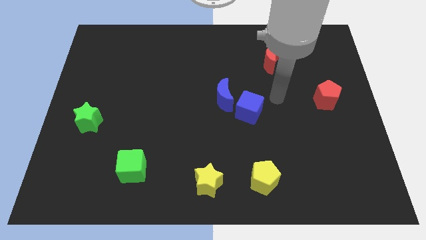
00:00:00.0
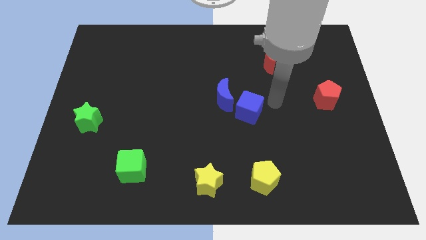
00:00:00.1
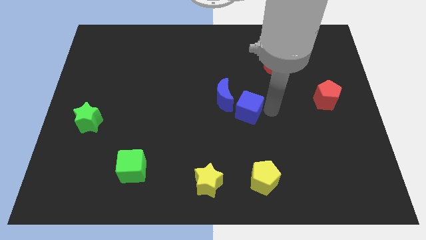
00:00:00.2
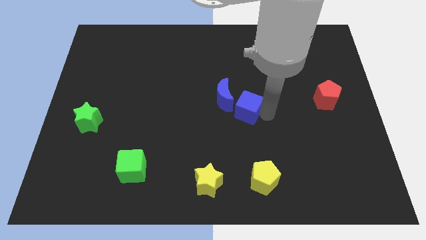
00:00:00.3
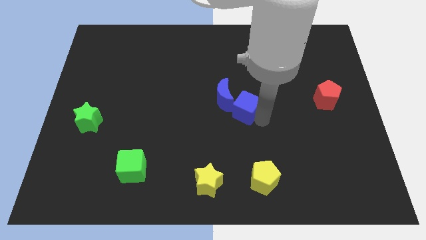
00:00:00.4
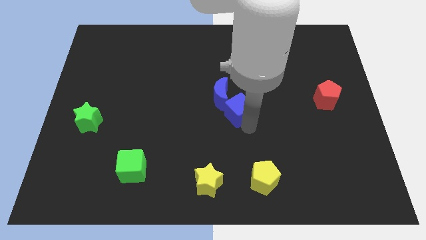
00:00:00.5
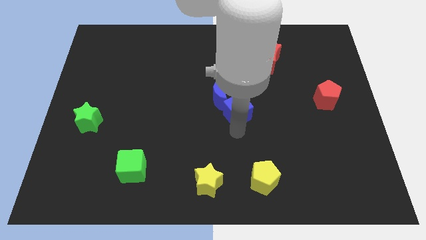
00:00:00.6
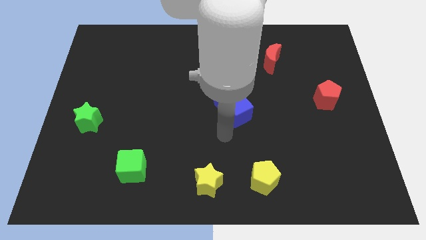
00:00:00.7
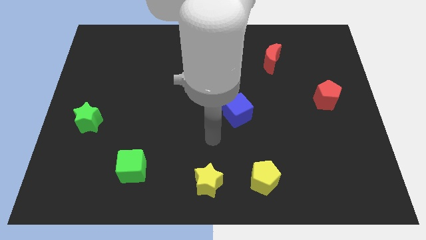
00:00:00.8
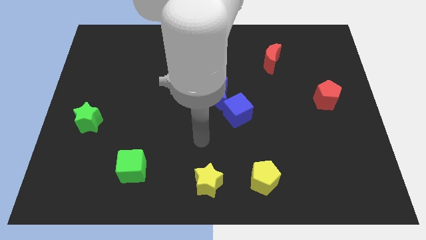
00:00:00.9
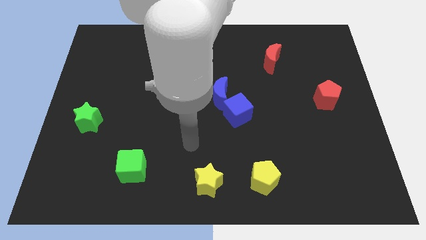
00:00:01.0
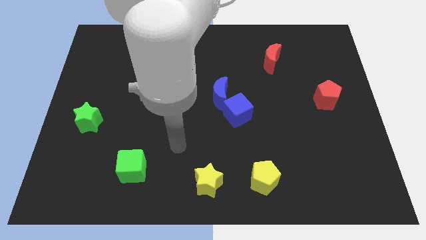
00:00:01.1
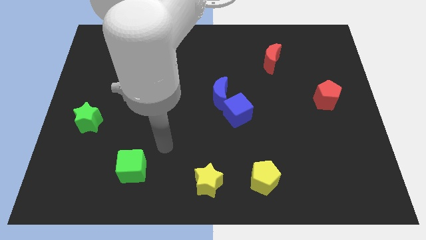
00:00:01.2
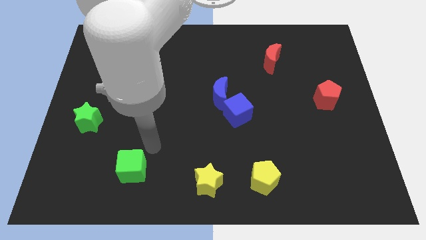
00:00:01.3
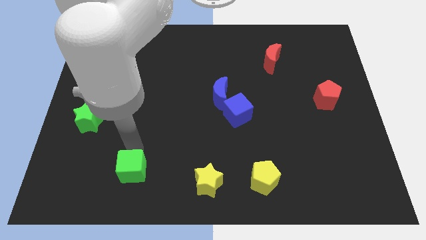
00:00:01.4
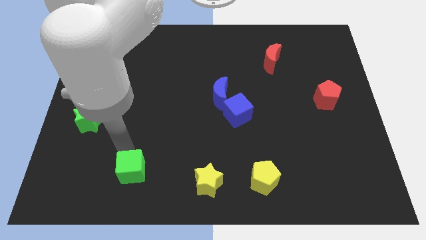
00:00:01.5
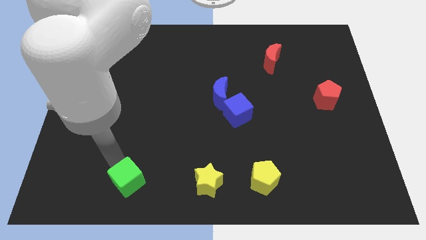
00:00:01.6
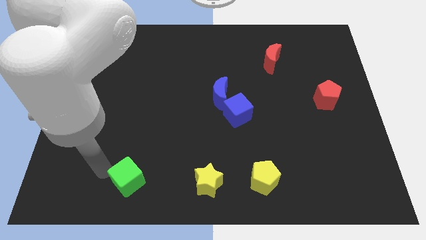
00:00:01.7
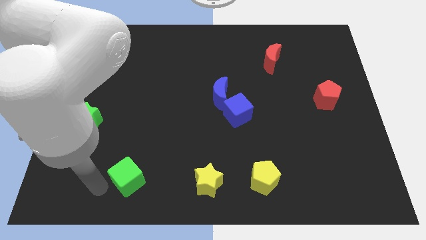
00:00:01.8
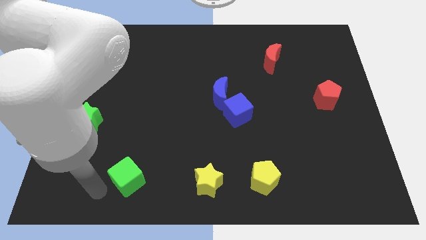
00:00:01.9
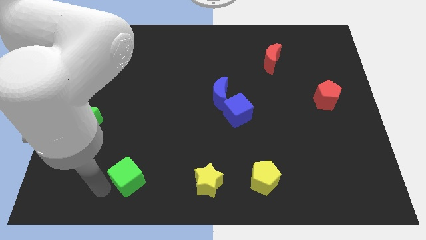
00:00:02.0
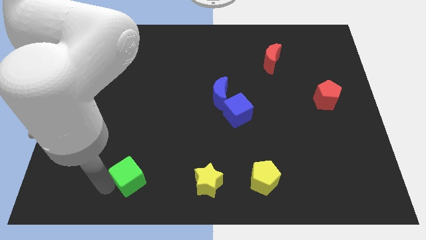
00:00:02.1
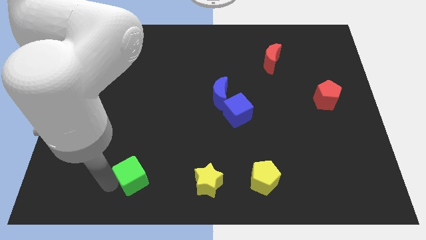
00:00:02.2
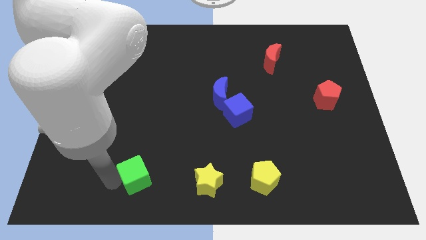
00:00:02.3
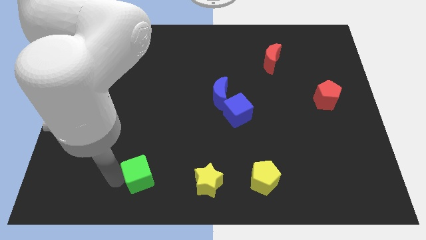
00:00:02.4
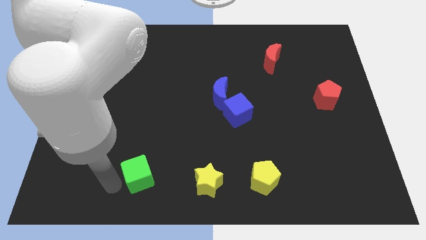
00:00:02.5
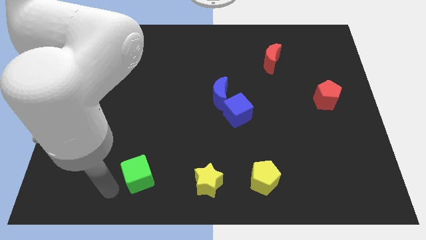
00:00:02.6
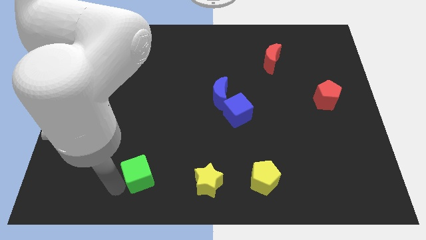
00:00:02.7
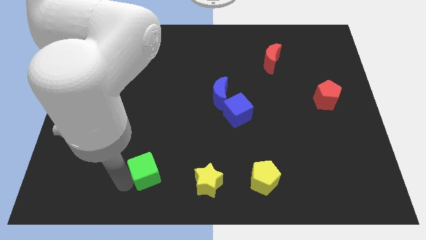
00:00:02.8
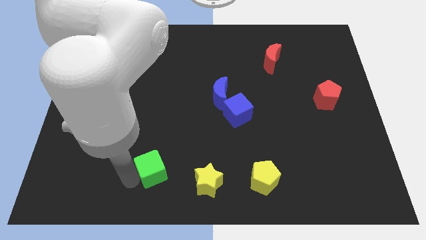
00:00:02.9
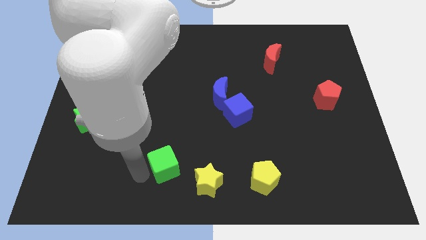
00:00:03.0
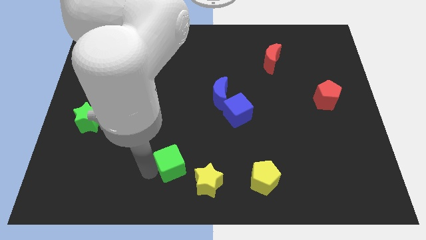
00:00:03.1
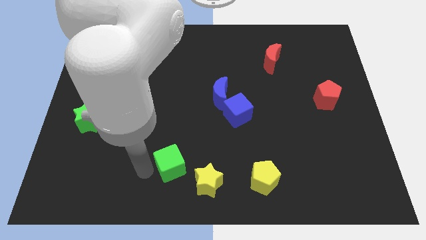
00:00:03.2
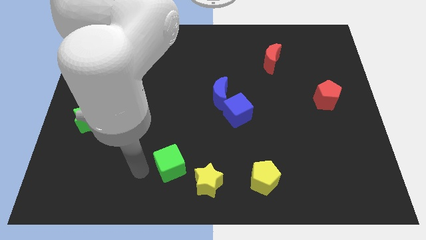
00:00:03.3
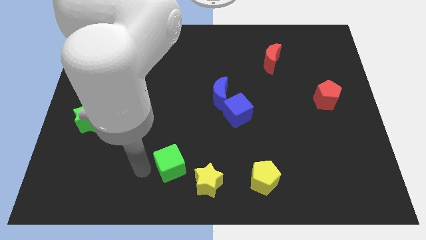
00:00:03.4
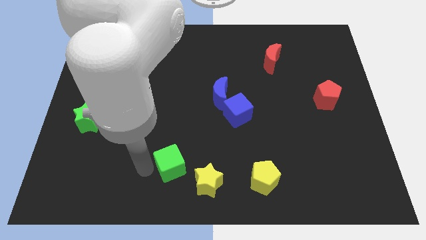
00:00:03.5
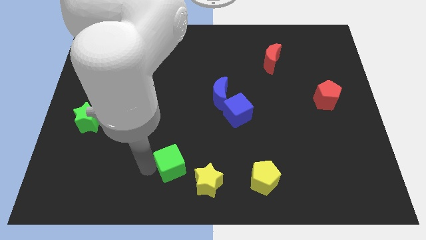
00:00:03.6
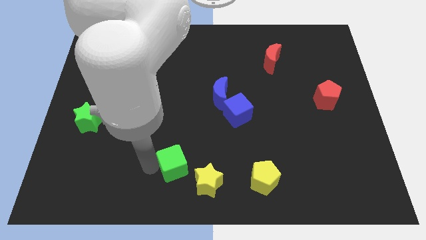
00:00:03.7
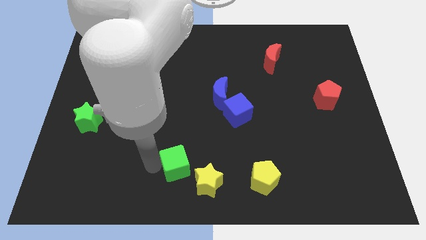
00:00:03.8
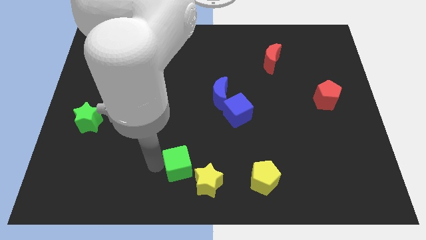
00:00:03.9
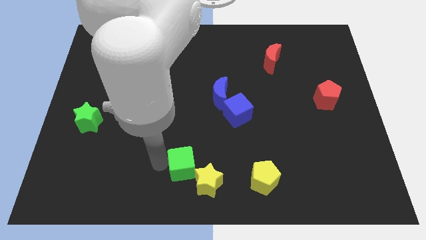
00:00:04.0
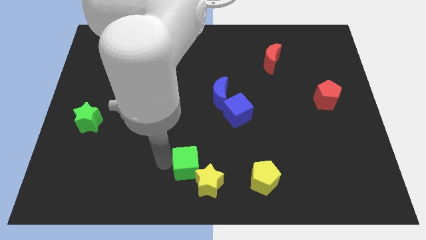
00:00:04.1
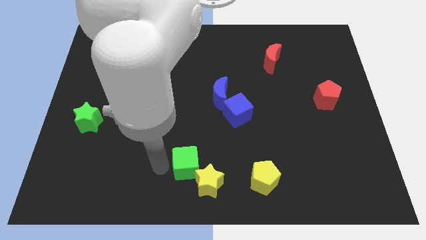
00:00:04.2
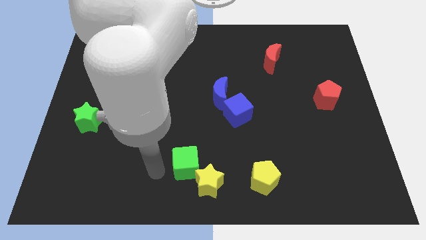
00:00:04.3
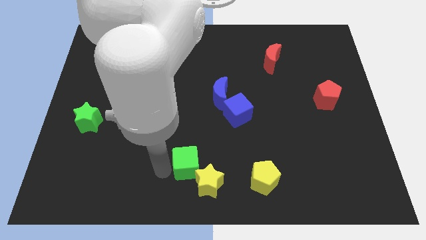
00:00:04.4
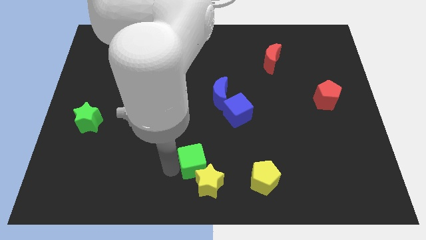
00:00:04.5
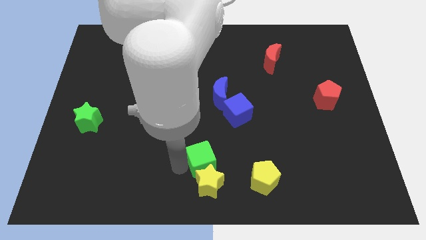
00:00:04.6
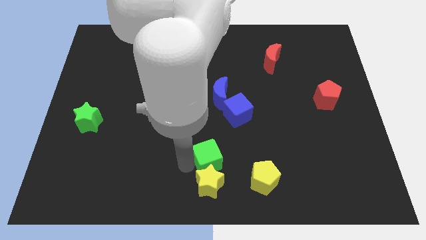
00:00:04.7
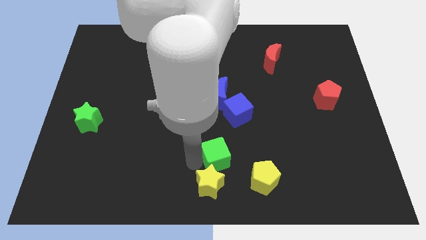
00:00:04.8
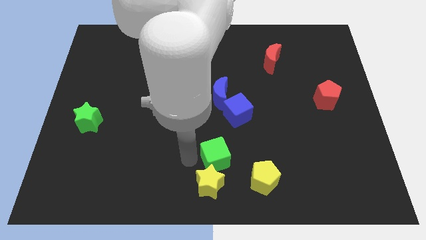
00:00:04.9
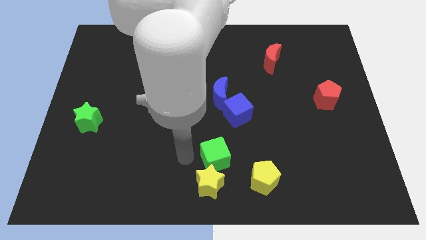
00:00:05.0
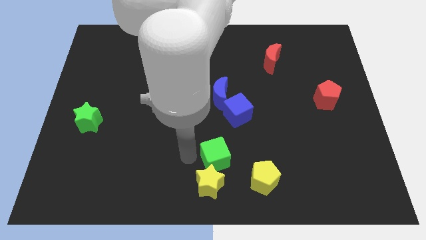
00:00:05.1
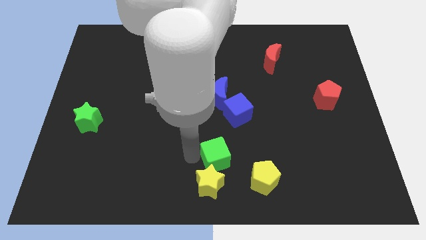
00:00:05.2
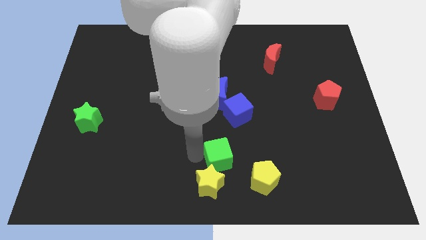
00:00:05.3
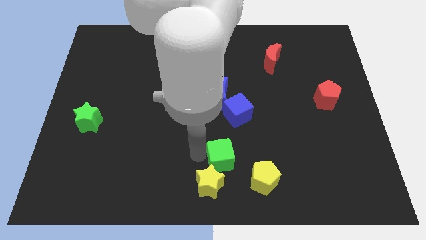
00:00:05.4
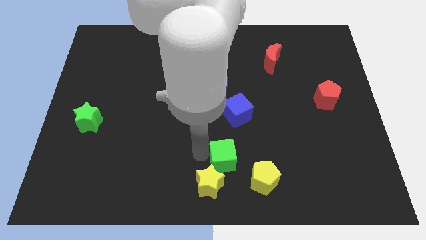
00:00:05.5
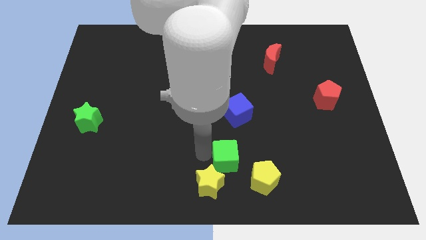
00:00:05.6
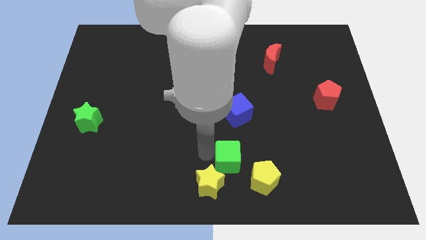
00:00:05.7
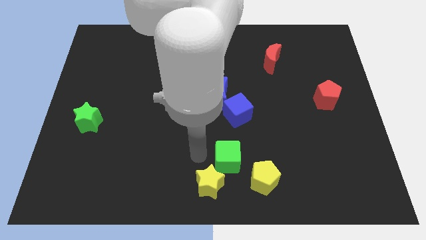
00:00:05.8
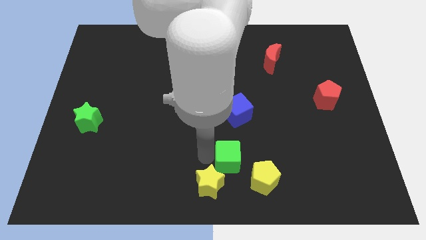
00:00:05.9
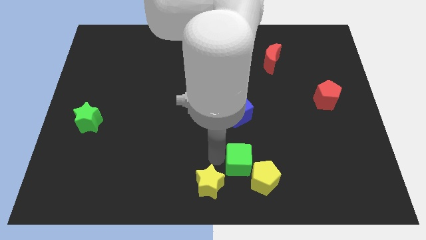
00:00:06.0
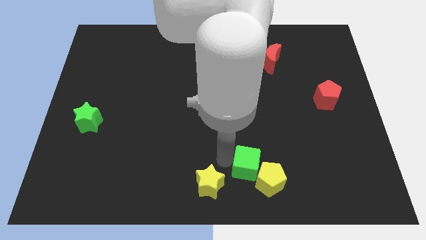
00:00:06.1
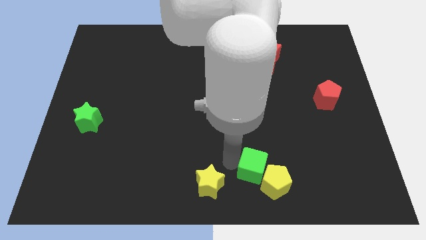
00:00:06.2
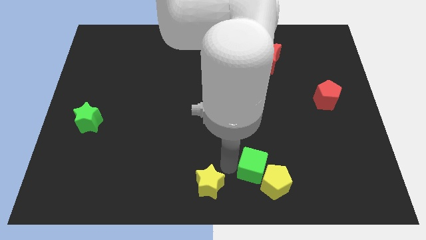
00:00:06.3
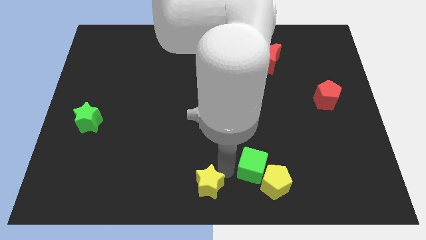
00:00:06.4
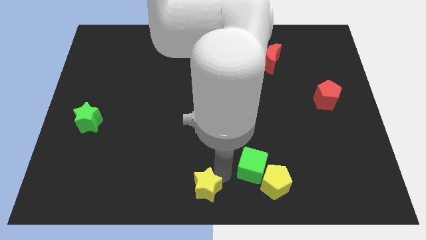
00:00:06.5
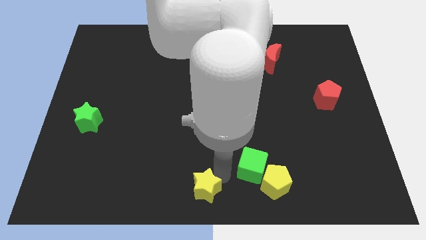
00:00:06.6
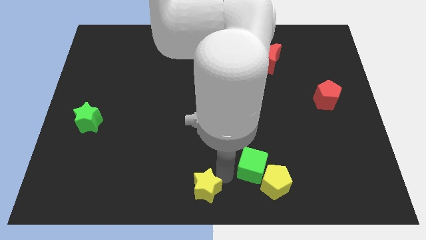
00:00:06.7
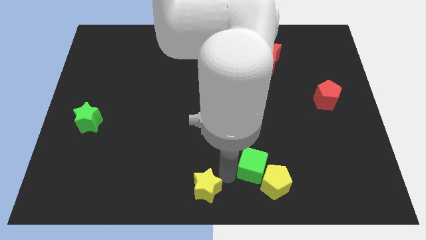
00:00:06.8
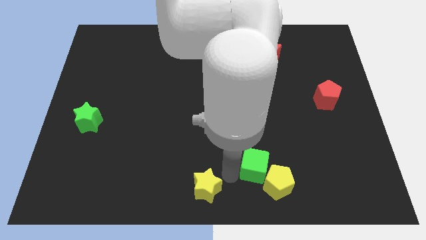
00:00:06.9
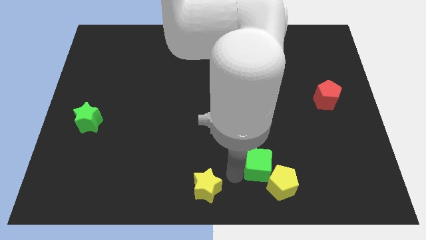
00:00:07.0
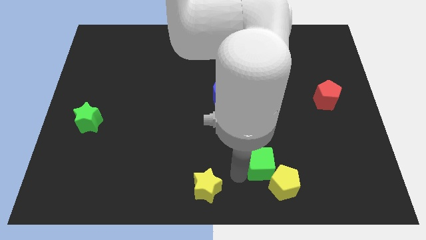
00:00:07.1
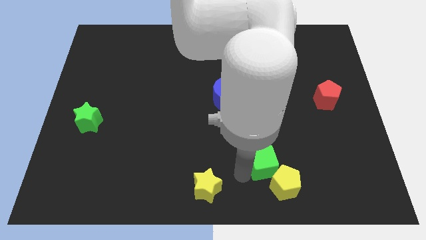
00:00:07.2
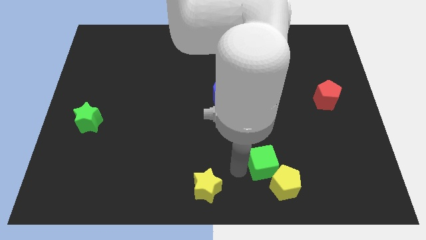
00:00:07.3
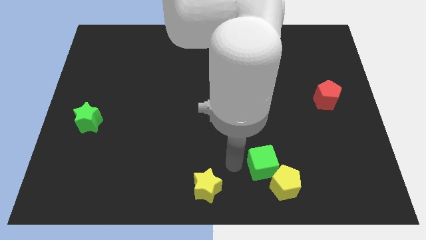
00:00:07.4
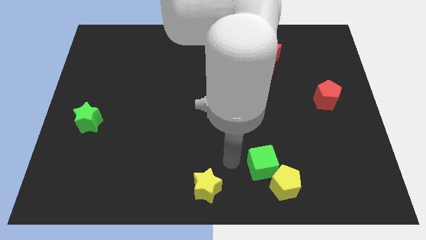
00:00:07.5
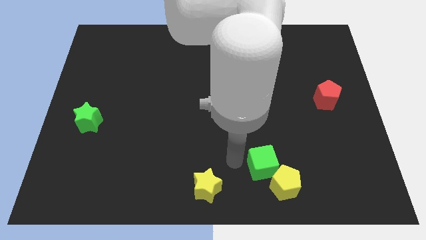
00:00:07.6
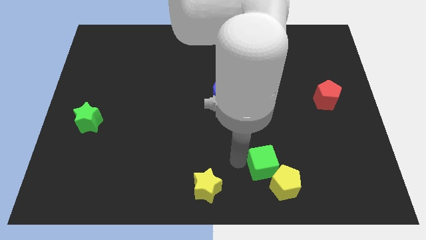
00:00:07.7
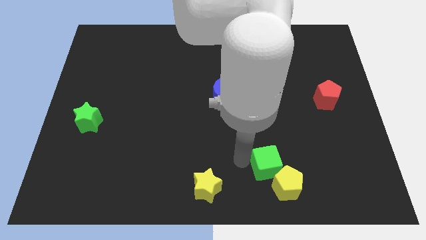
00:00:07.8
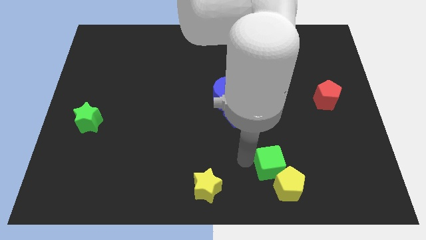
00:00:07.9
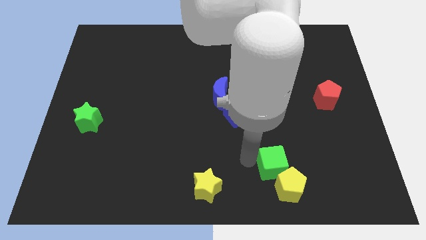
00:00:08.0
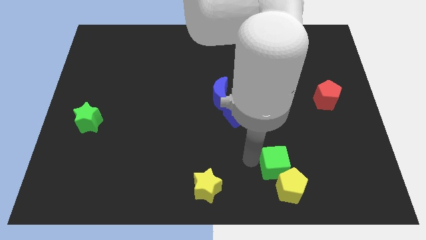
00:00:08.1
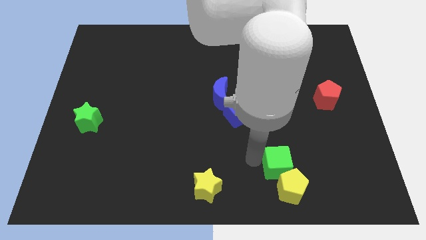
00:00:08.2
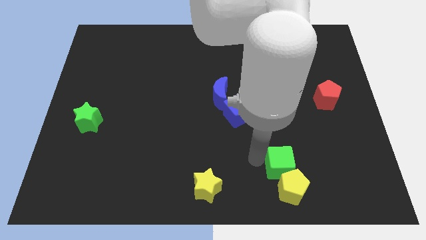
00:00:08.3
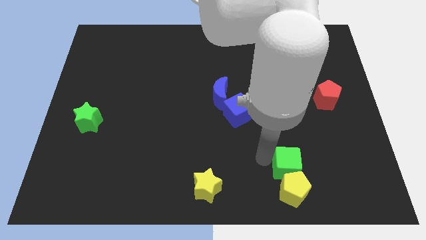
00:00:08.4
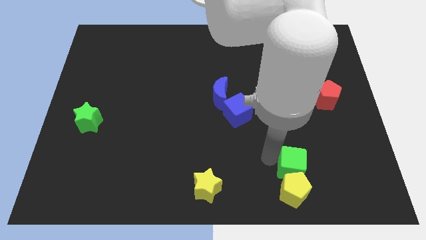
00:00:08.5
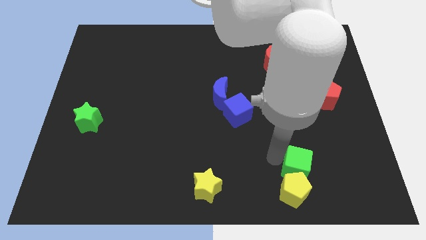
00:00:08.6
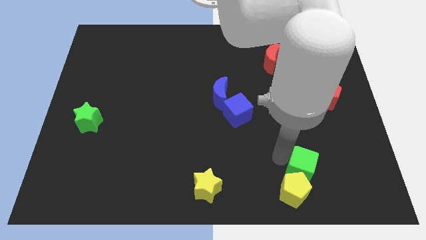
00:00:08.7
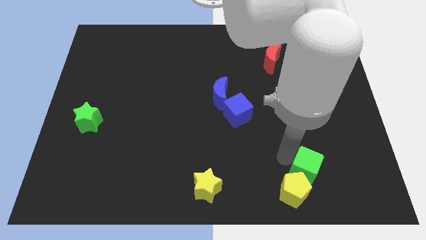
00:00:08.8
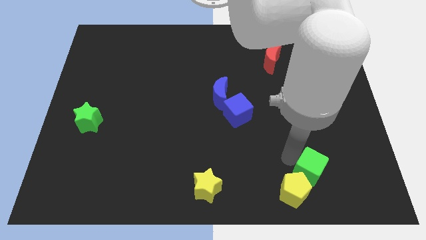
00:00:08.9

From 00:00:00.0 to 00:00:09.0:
move the green cube right of the yellow pentagon
